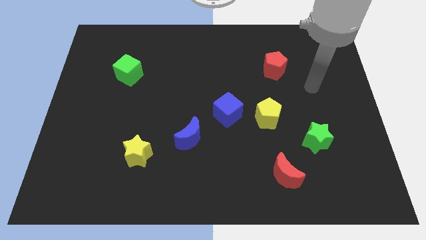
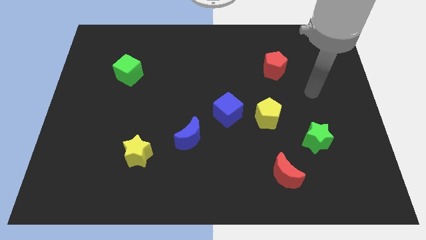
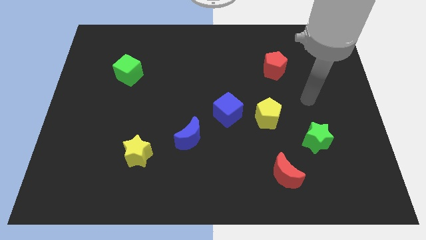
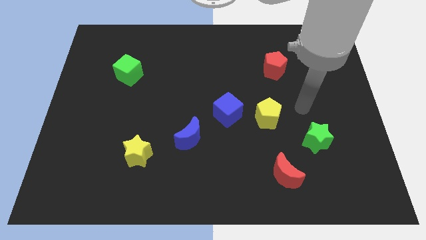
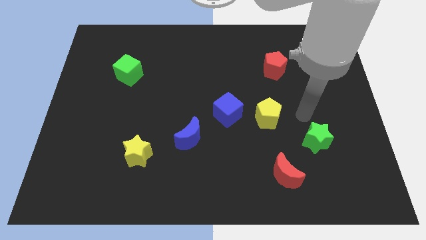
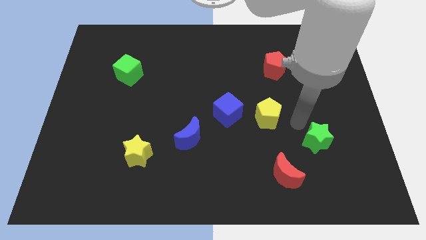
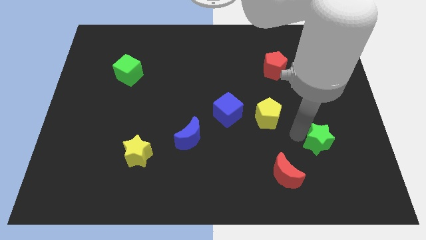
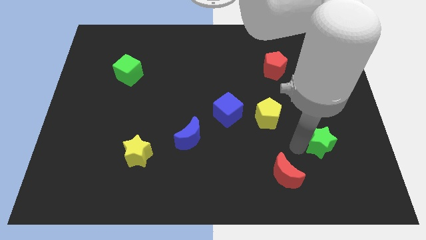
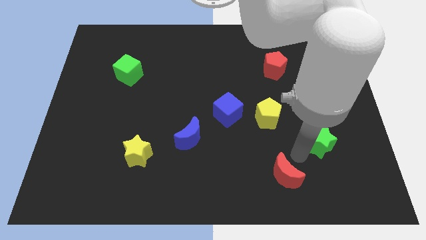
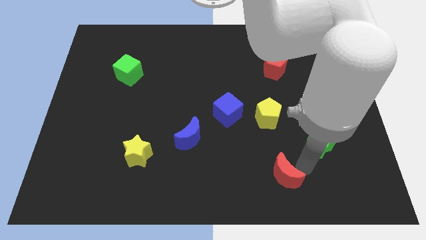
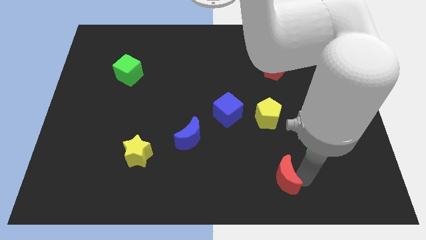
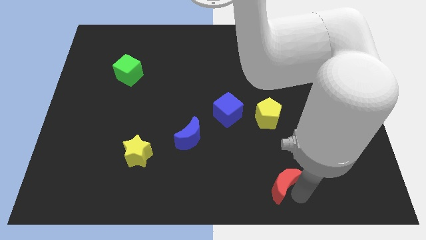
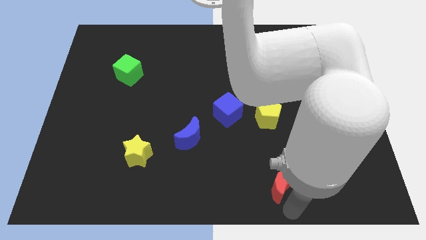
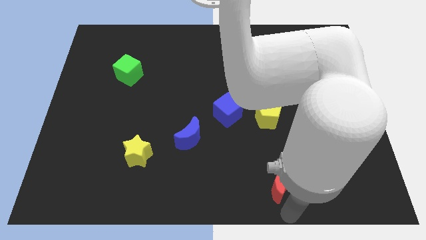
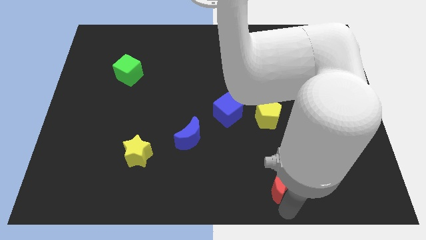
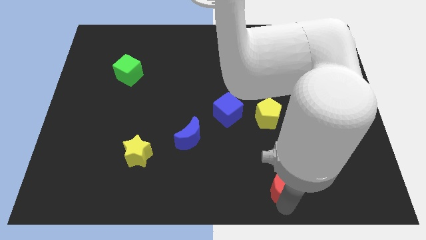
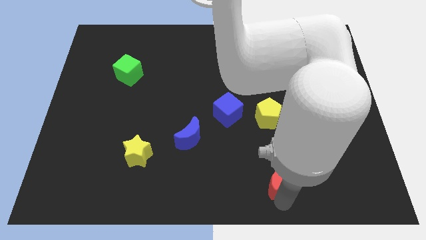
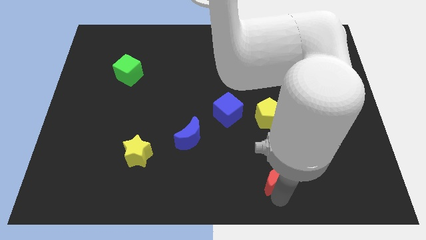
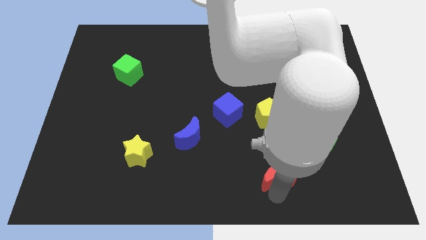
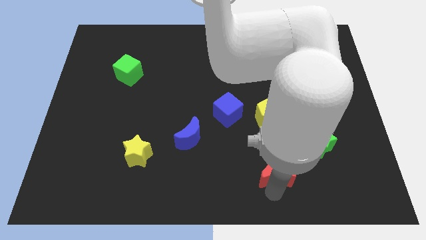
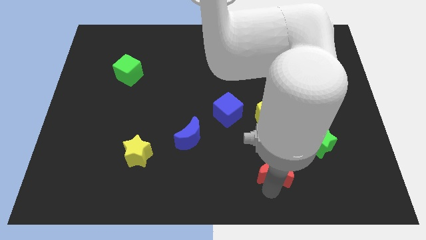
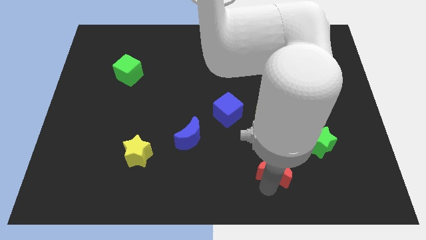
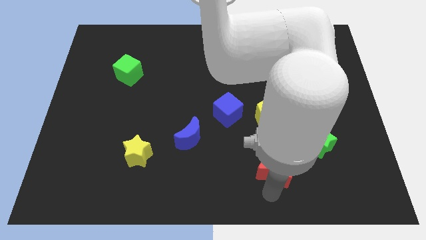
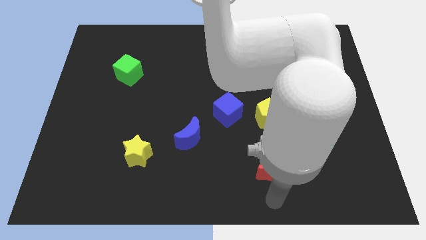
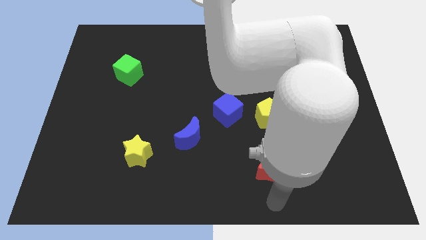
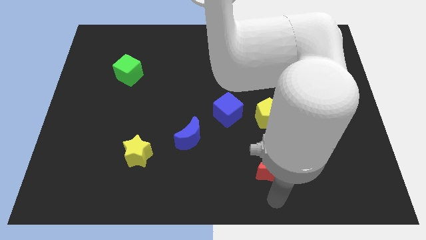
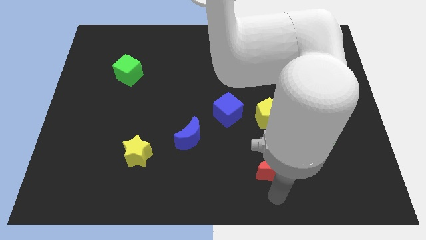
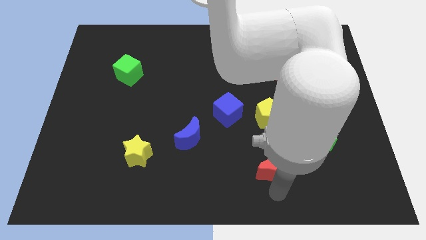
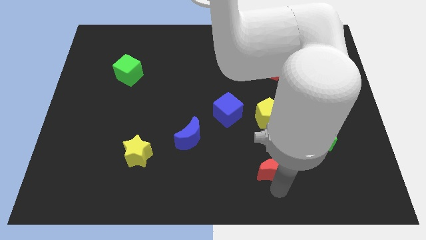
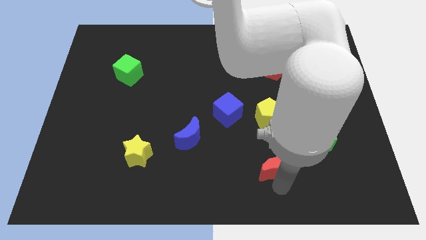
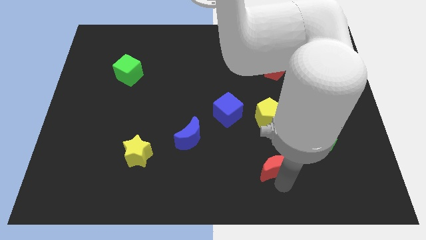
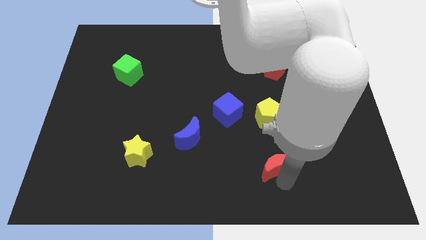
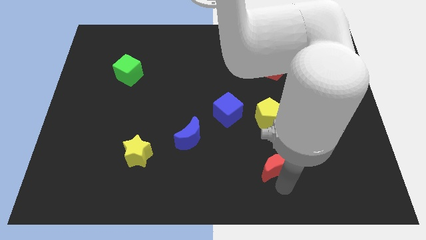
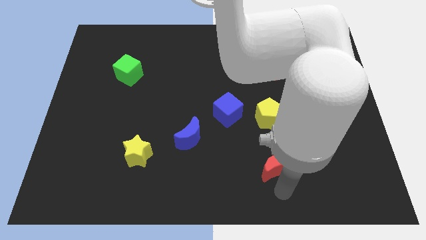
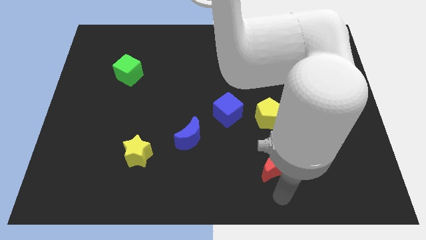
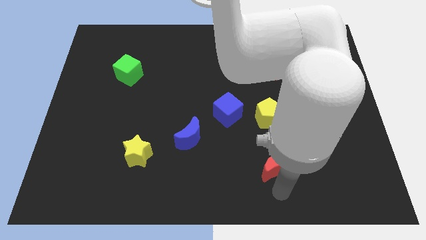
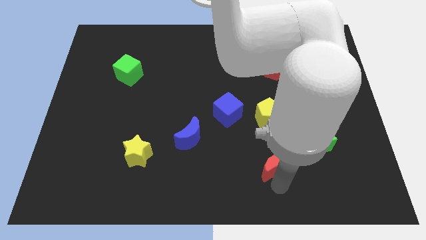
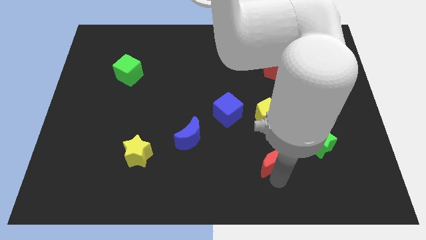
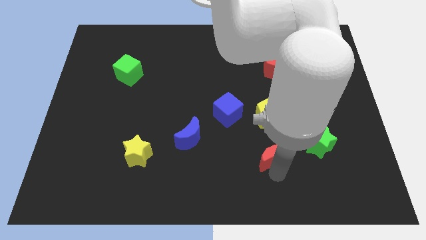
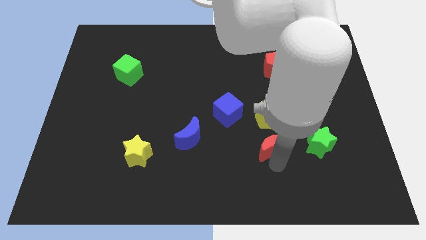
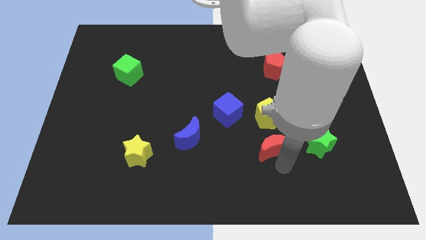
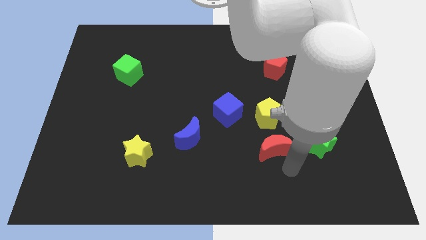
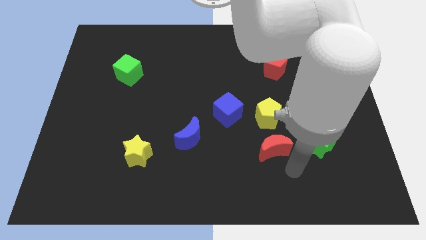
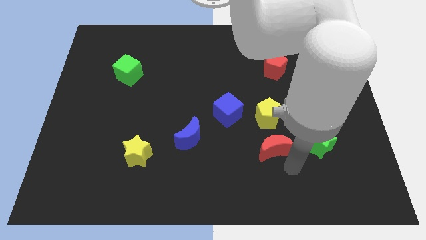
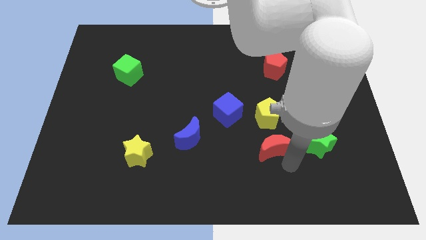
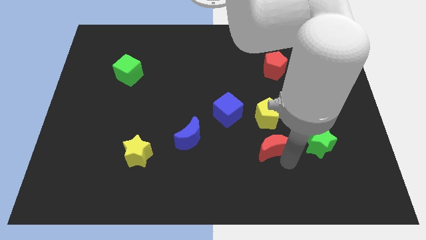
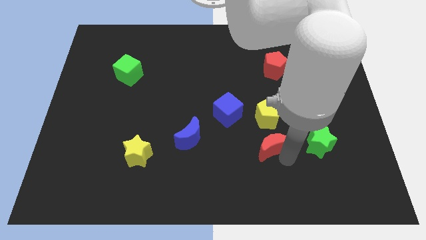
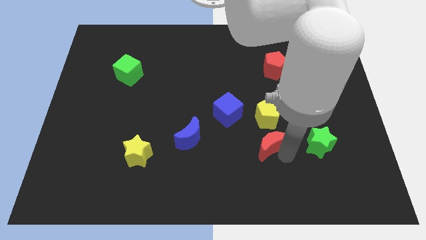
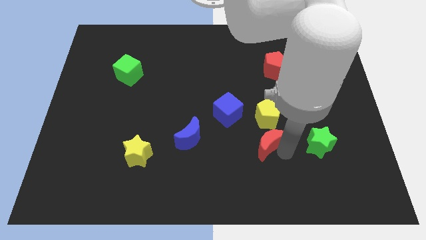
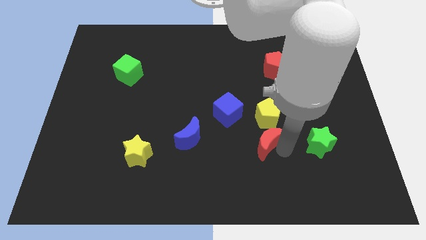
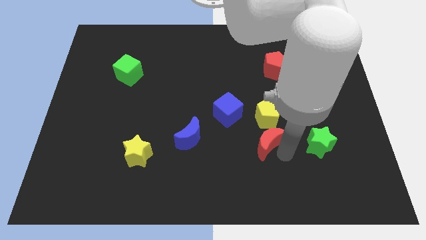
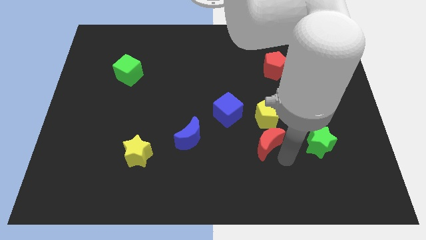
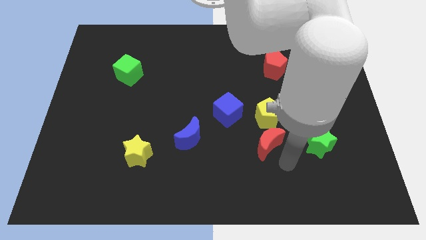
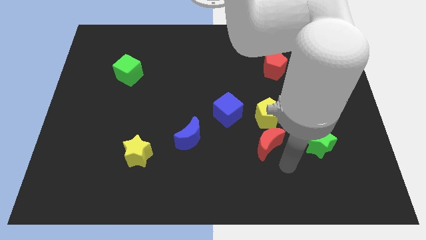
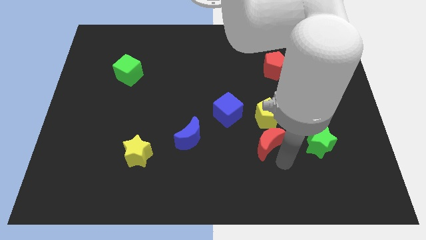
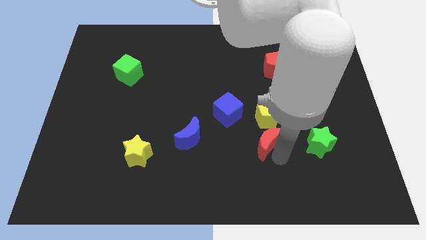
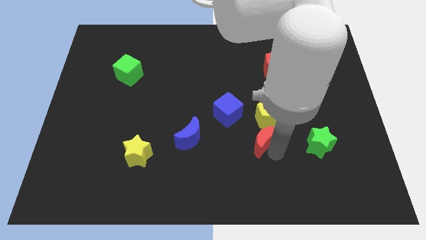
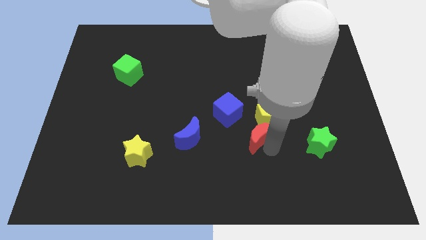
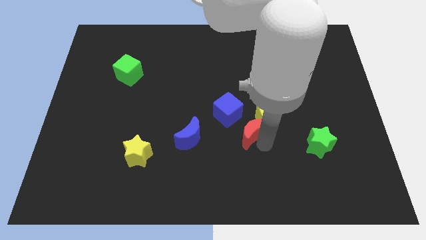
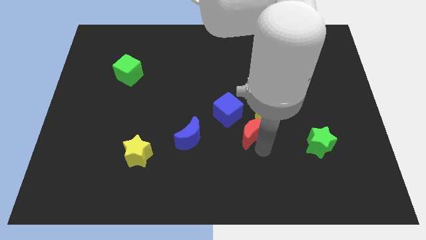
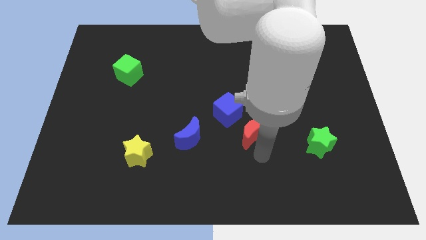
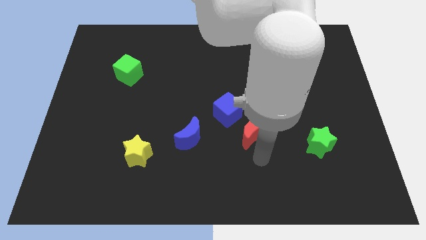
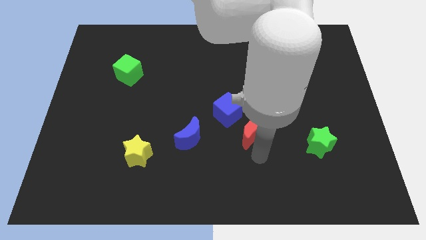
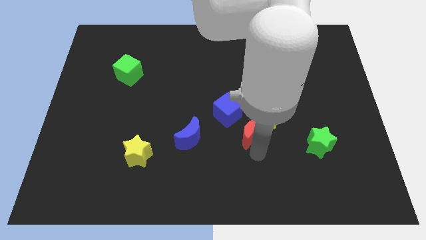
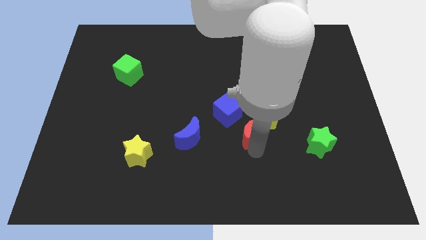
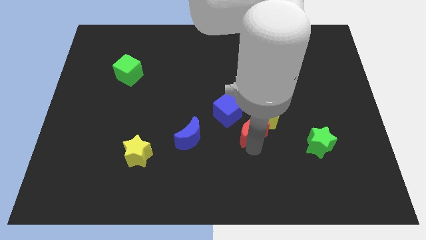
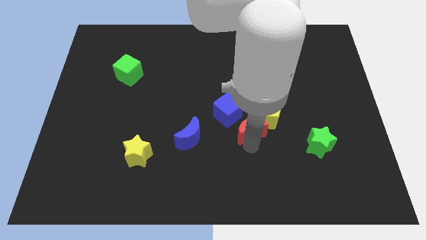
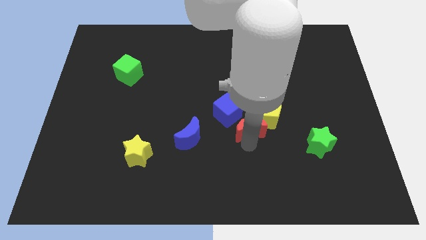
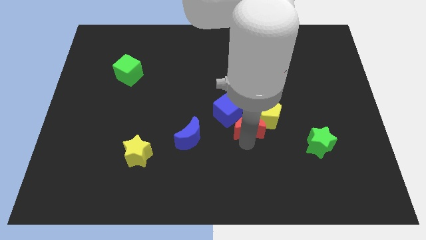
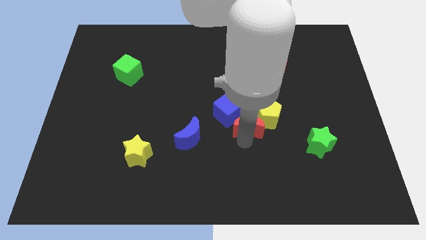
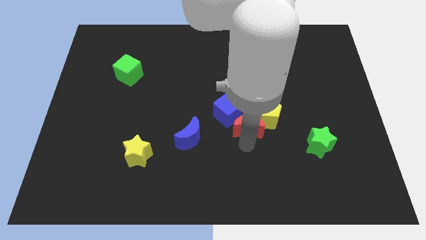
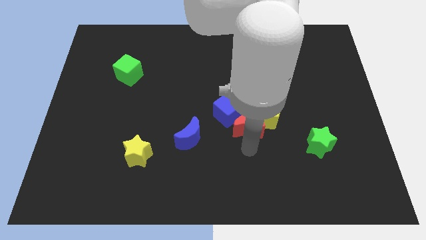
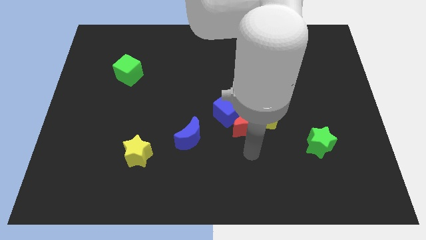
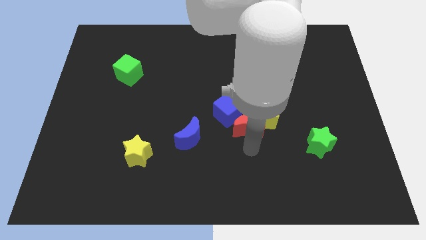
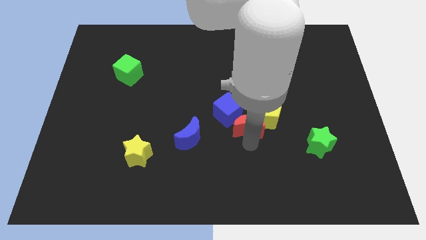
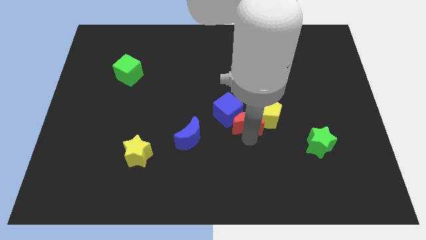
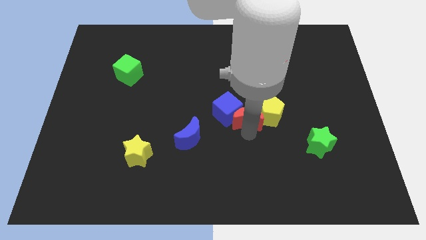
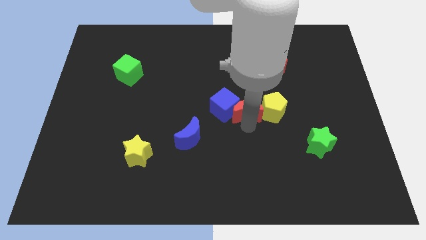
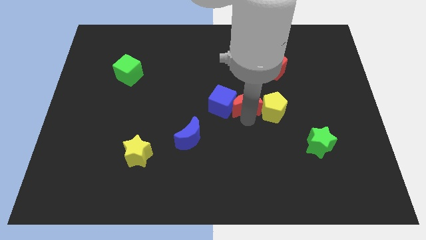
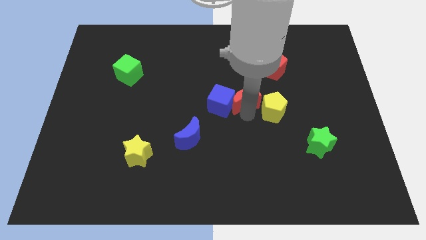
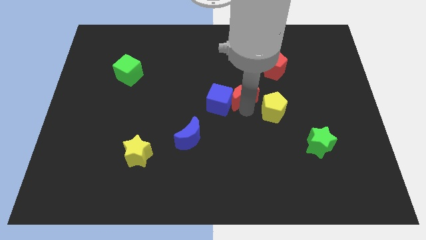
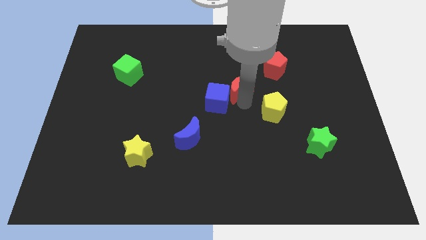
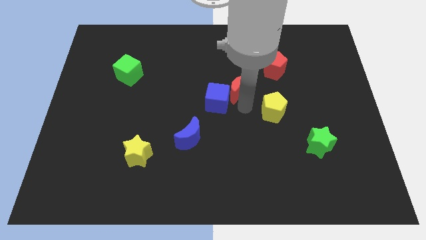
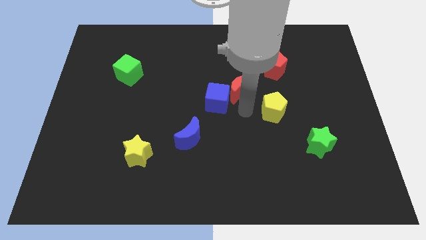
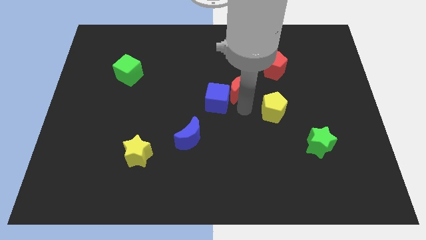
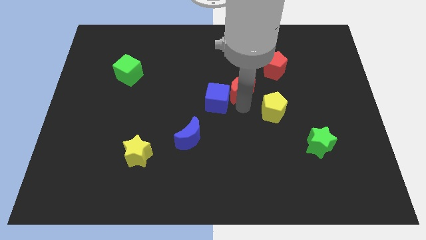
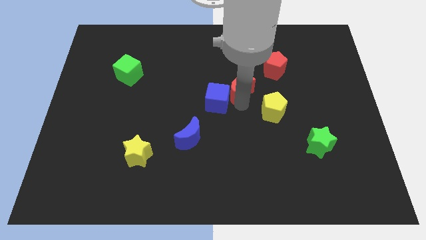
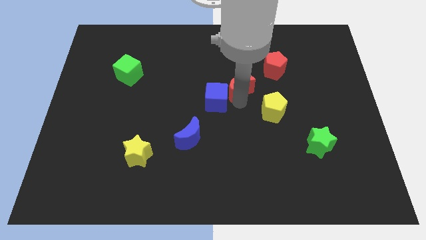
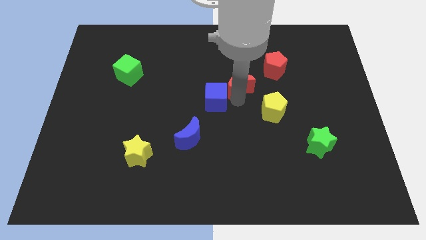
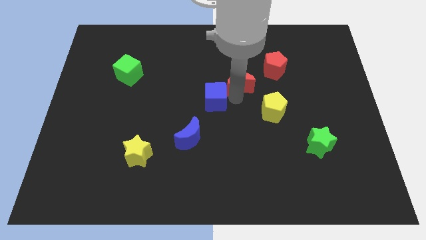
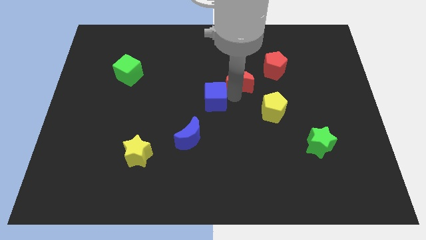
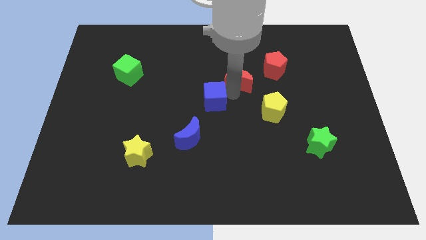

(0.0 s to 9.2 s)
slide the red moon just left of the red pentagon
